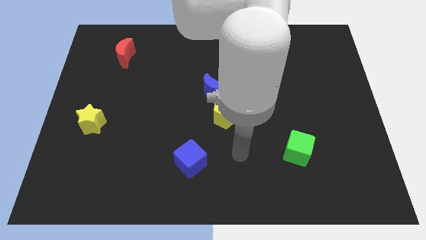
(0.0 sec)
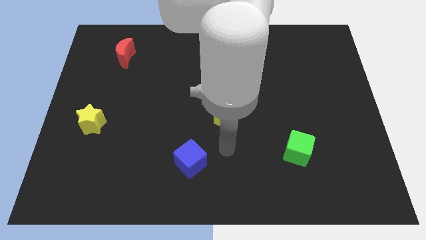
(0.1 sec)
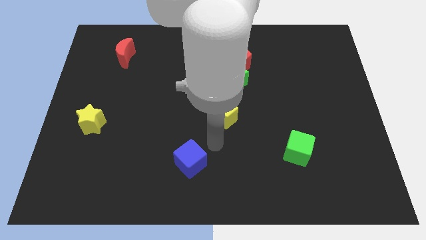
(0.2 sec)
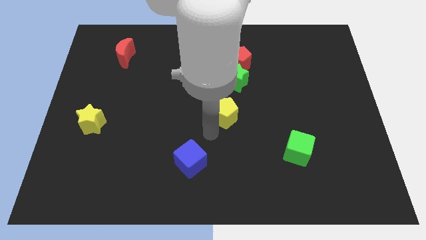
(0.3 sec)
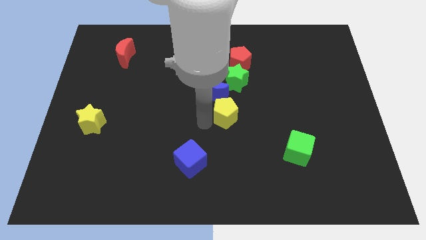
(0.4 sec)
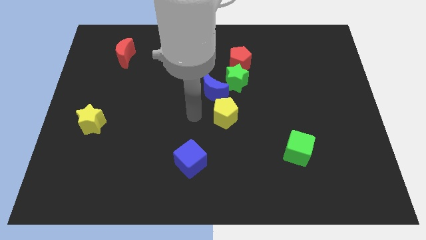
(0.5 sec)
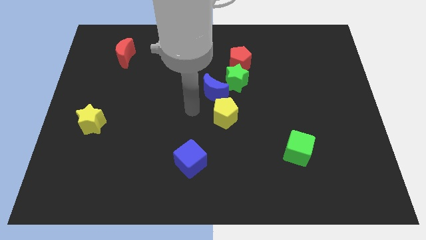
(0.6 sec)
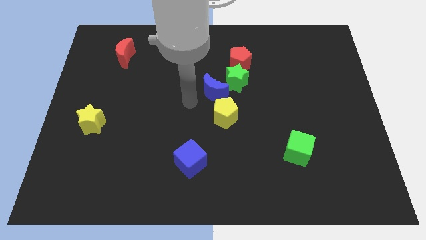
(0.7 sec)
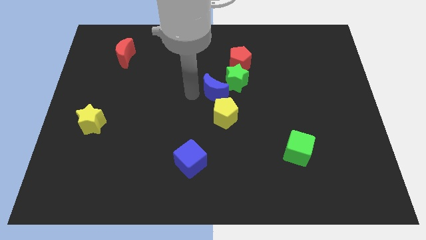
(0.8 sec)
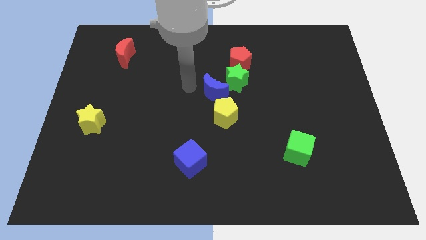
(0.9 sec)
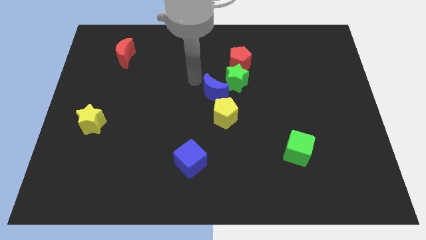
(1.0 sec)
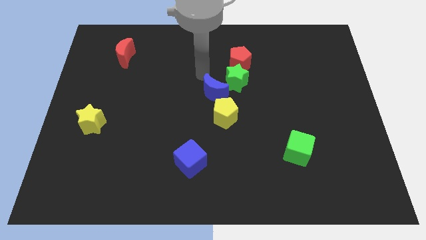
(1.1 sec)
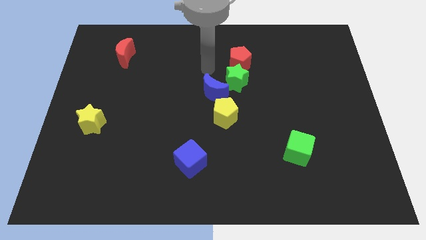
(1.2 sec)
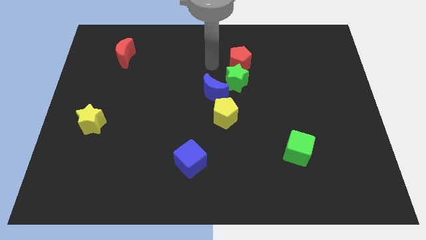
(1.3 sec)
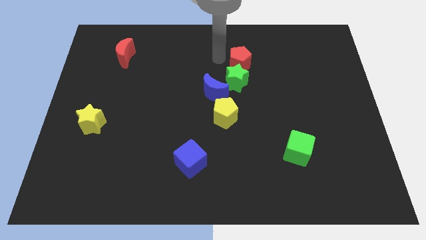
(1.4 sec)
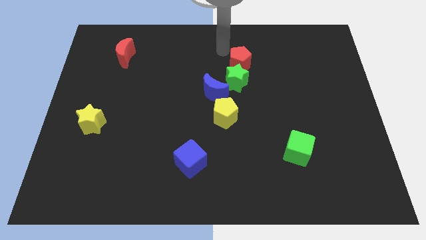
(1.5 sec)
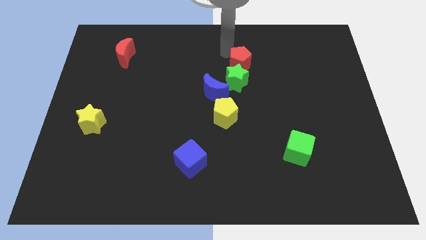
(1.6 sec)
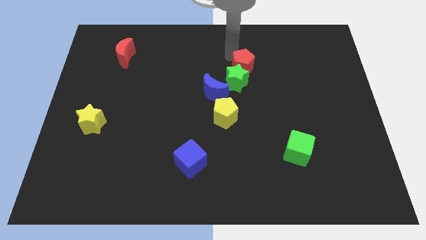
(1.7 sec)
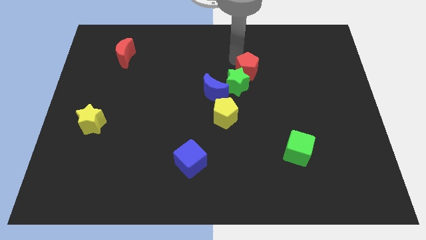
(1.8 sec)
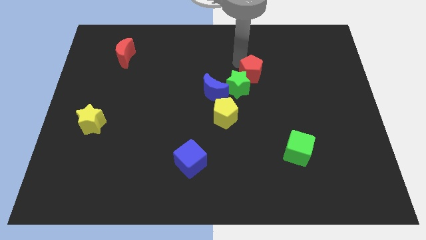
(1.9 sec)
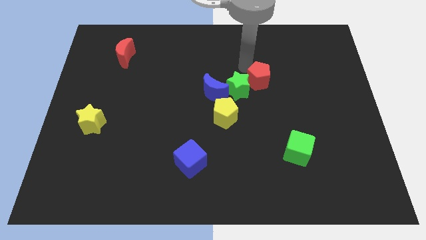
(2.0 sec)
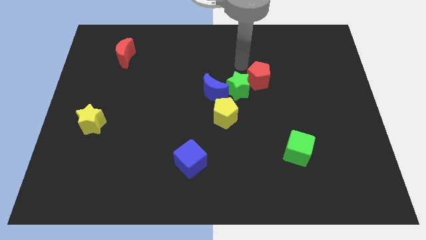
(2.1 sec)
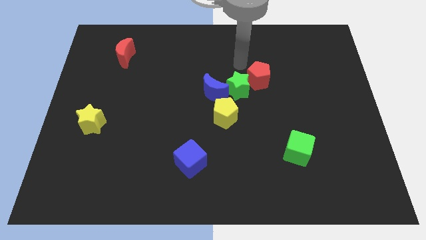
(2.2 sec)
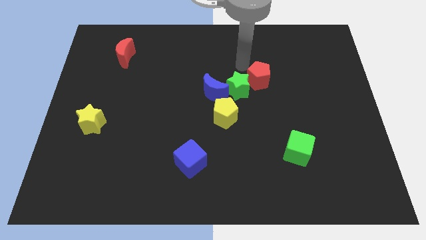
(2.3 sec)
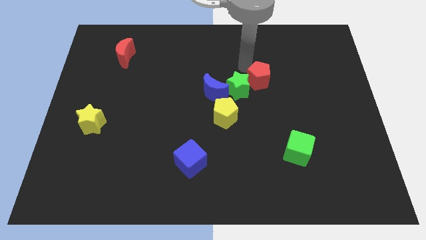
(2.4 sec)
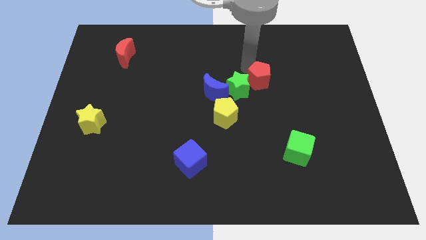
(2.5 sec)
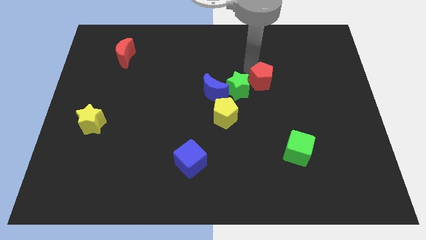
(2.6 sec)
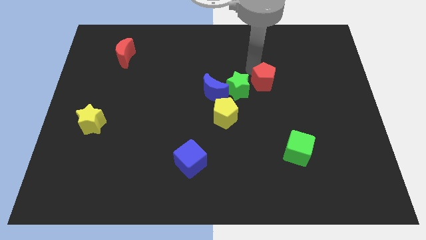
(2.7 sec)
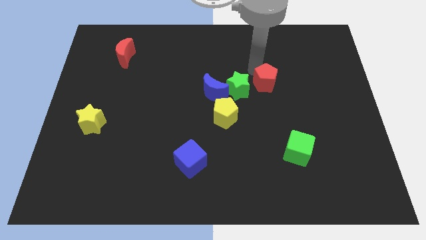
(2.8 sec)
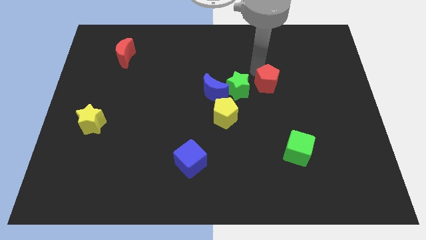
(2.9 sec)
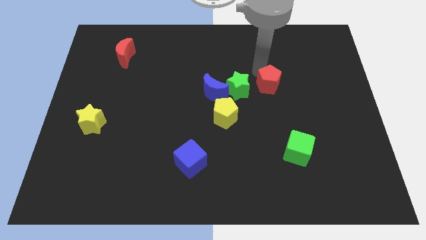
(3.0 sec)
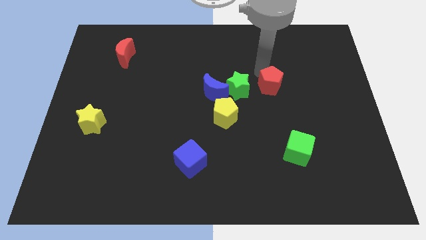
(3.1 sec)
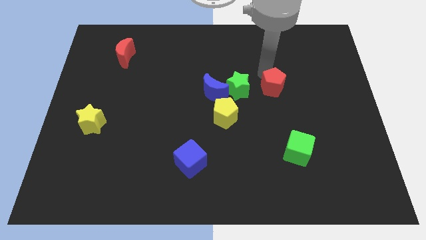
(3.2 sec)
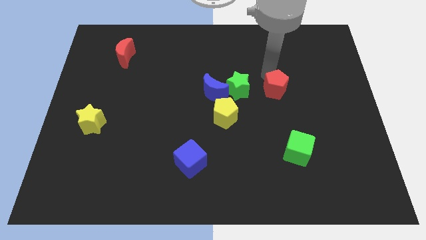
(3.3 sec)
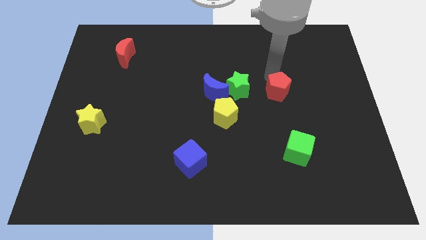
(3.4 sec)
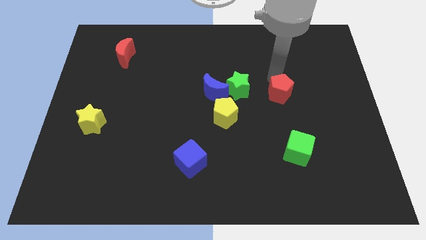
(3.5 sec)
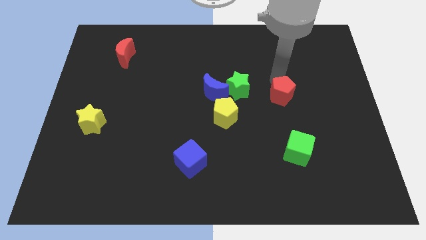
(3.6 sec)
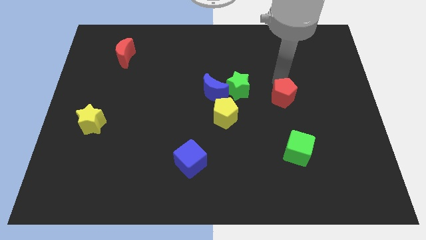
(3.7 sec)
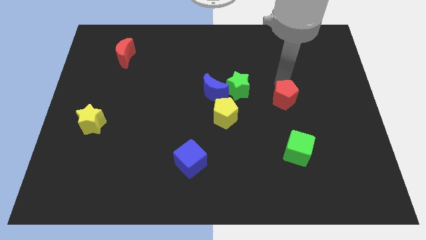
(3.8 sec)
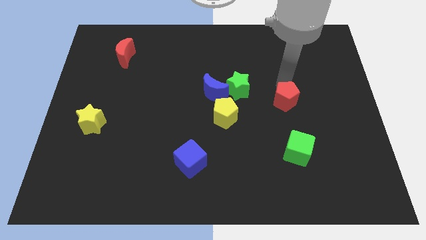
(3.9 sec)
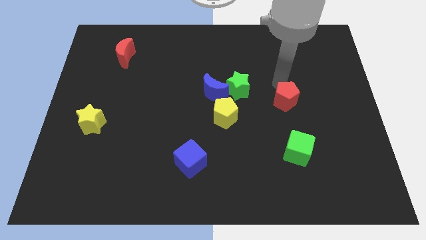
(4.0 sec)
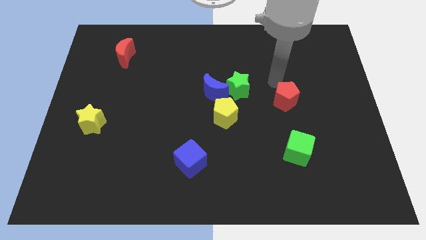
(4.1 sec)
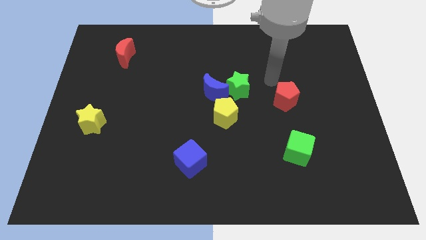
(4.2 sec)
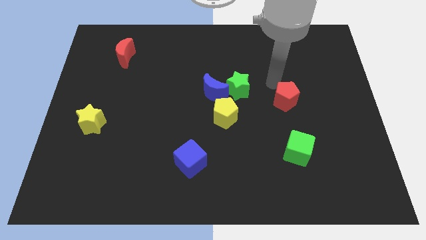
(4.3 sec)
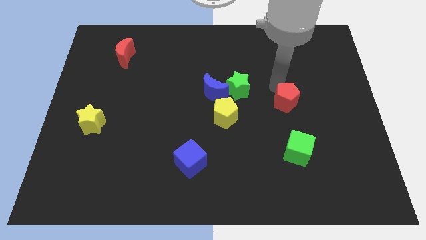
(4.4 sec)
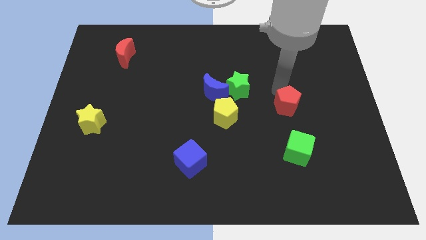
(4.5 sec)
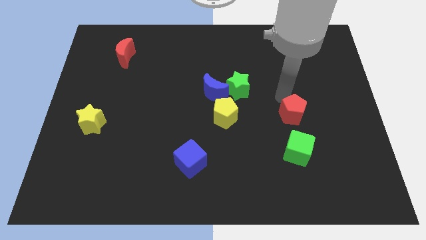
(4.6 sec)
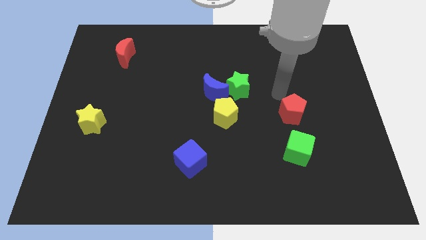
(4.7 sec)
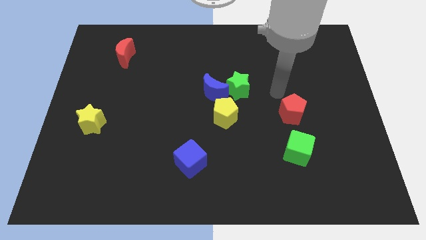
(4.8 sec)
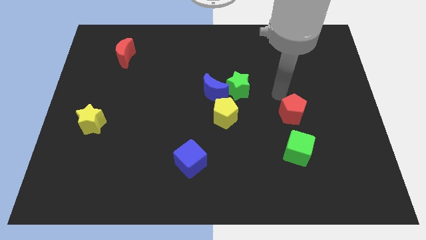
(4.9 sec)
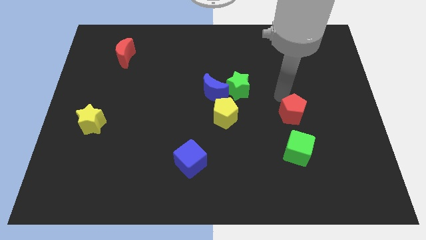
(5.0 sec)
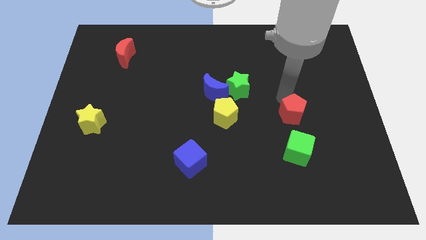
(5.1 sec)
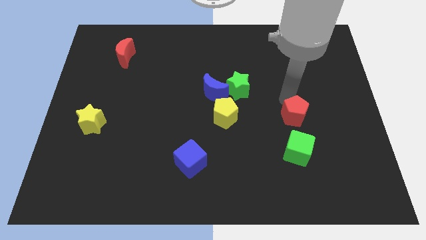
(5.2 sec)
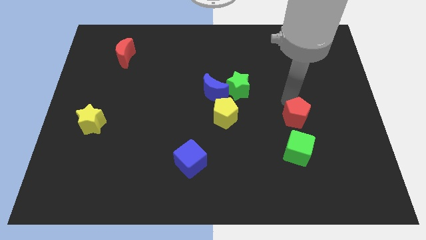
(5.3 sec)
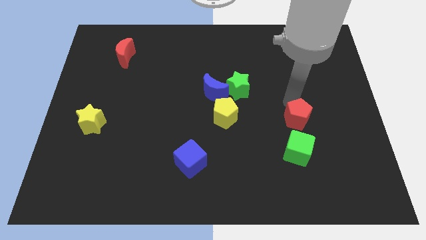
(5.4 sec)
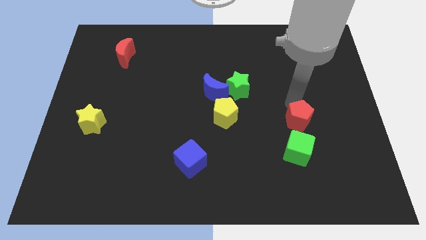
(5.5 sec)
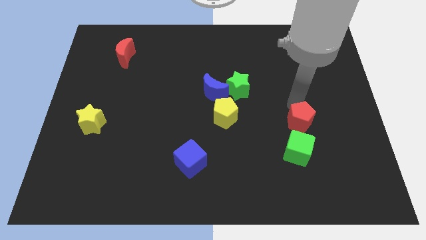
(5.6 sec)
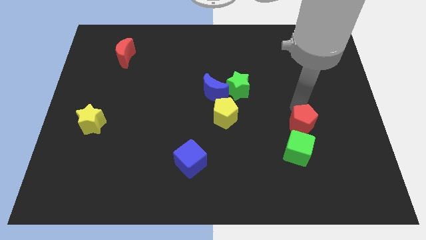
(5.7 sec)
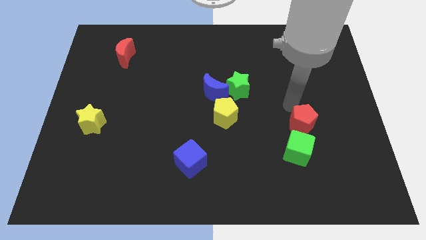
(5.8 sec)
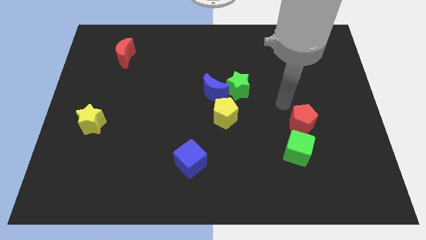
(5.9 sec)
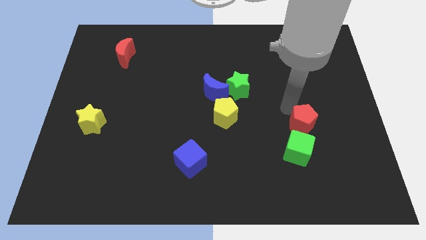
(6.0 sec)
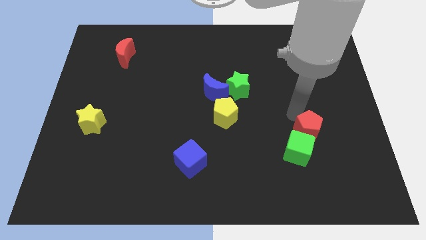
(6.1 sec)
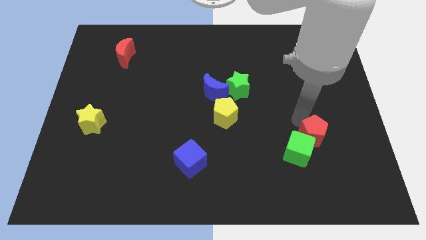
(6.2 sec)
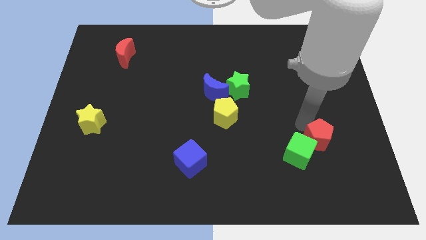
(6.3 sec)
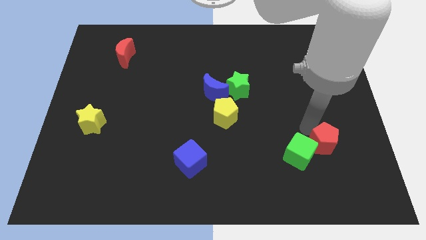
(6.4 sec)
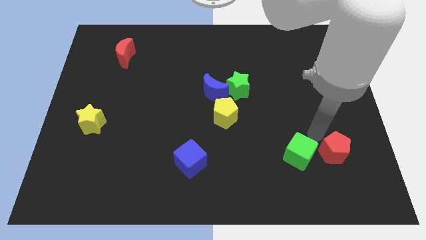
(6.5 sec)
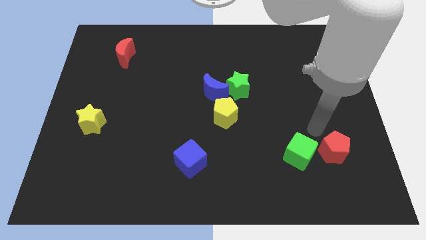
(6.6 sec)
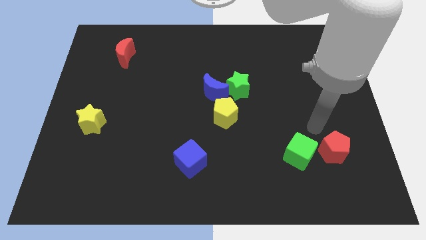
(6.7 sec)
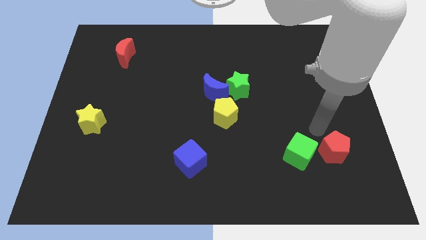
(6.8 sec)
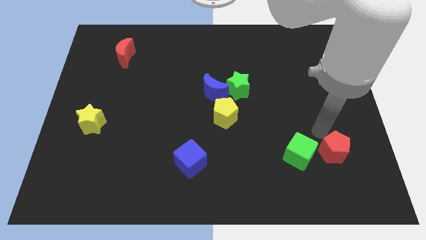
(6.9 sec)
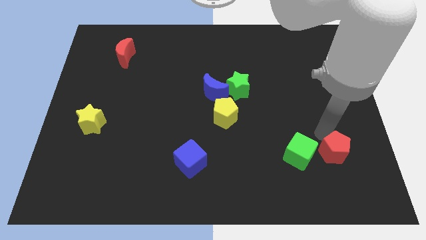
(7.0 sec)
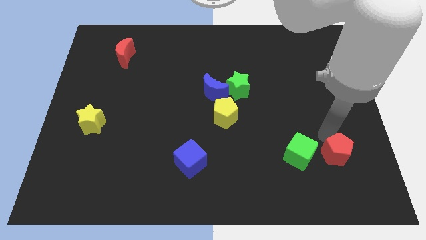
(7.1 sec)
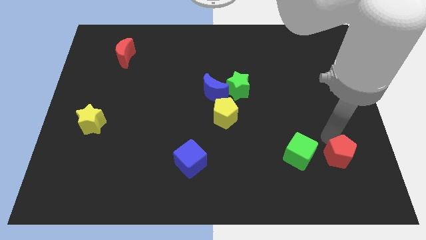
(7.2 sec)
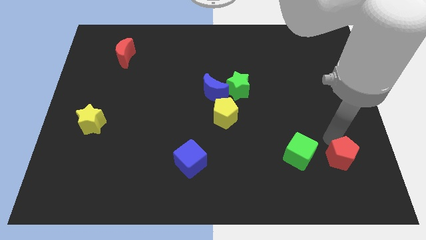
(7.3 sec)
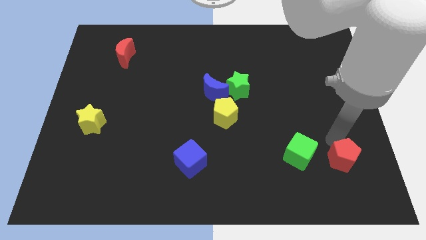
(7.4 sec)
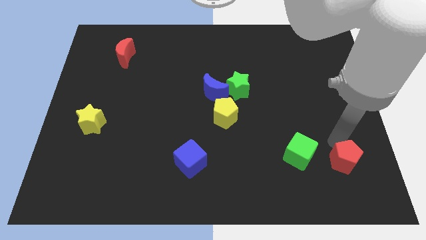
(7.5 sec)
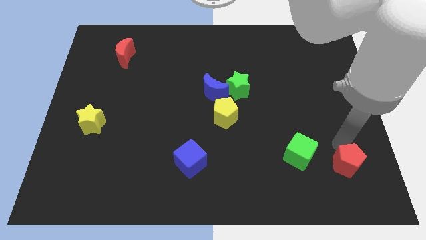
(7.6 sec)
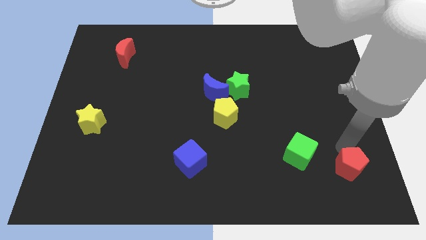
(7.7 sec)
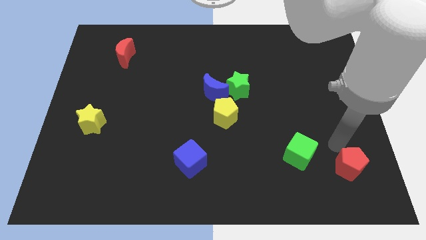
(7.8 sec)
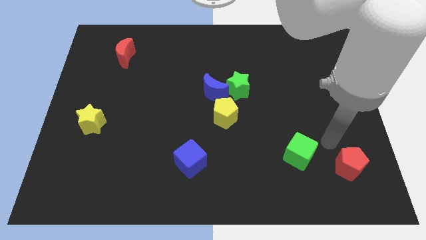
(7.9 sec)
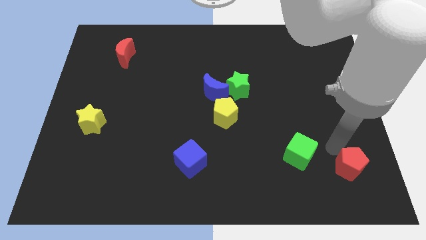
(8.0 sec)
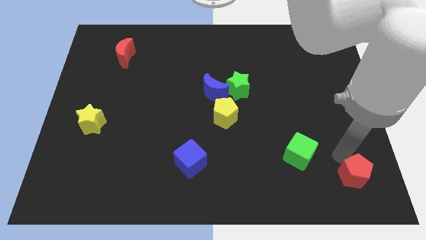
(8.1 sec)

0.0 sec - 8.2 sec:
push the red pentagon to the bottom right of the board
